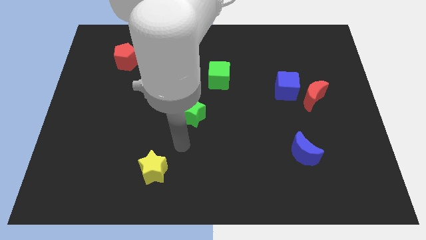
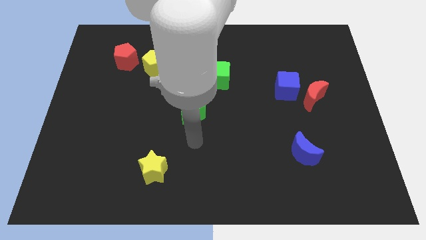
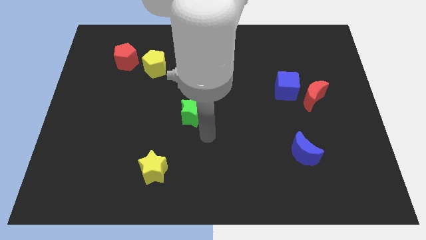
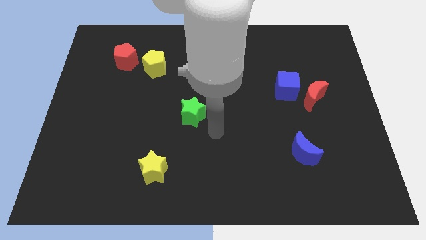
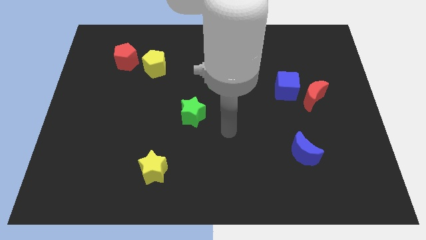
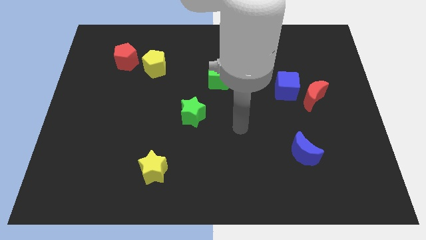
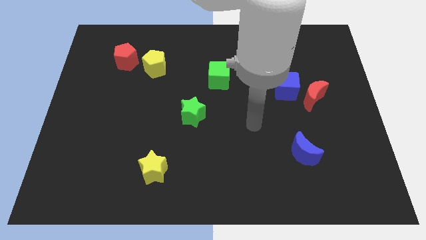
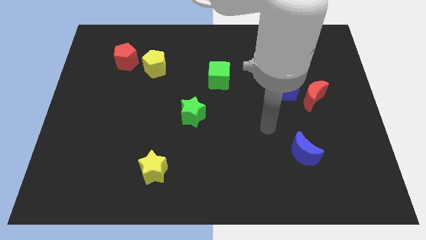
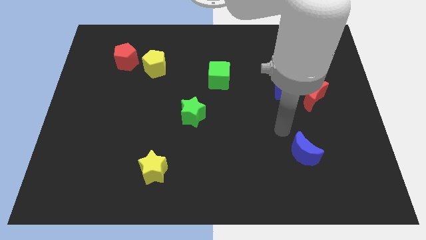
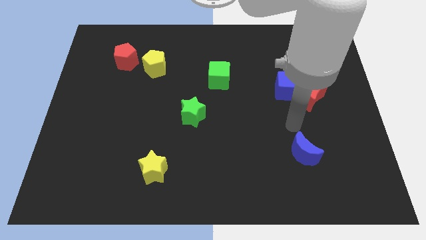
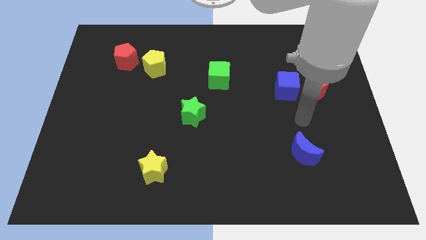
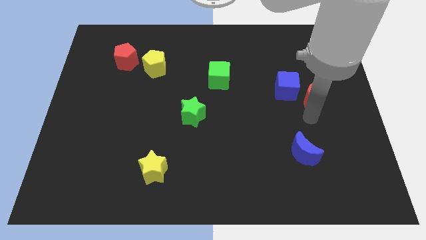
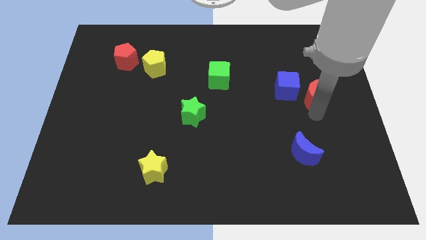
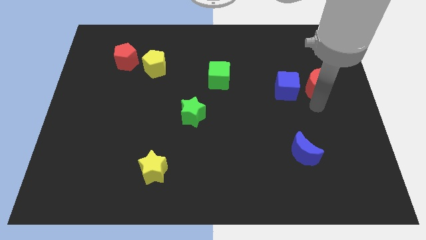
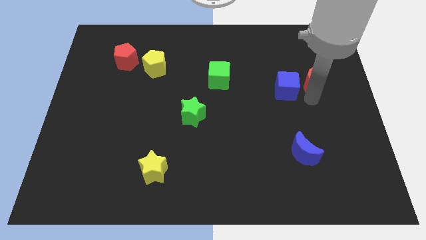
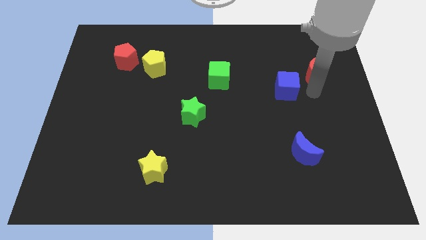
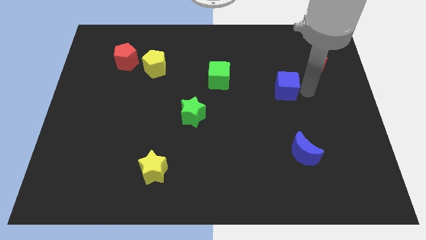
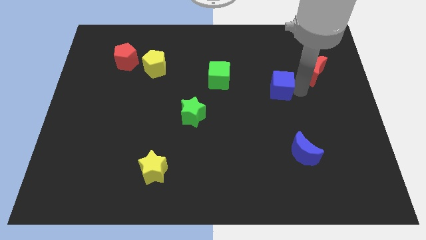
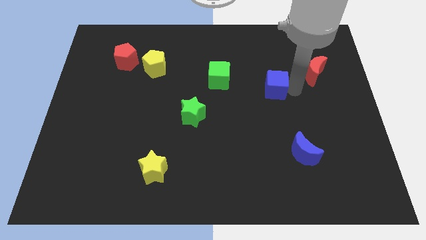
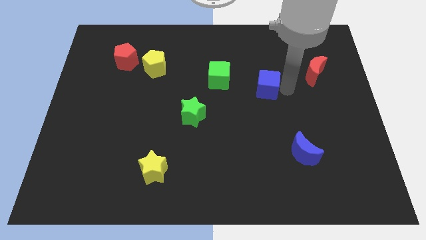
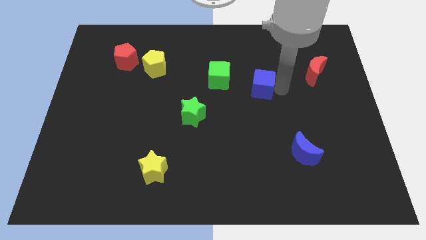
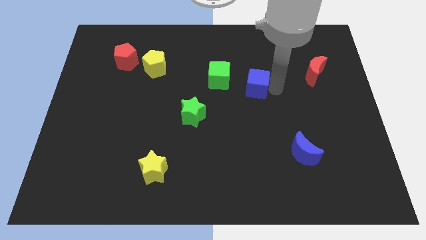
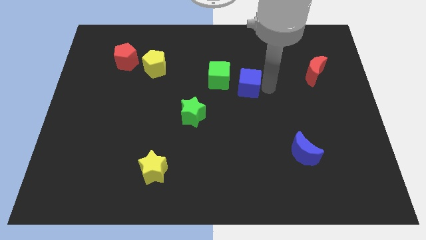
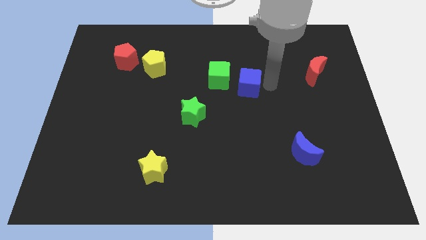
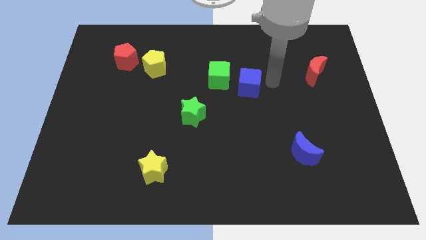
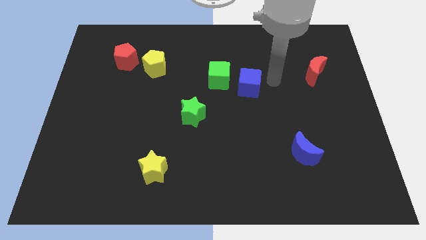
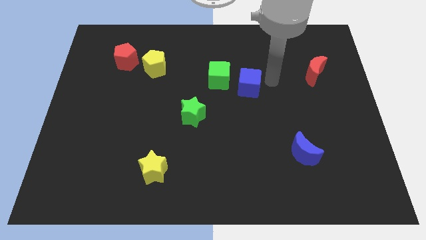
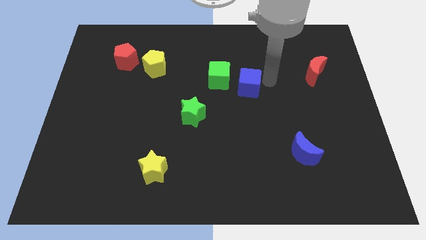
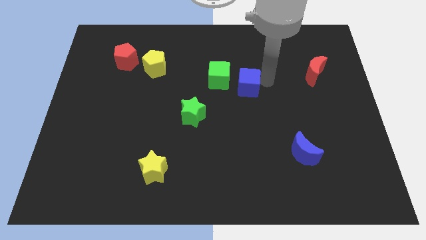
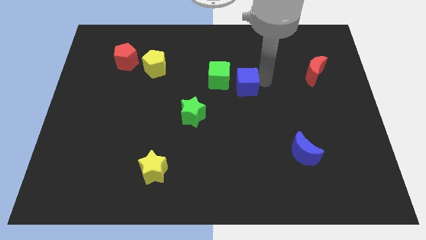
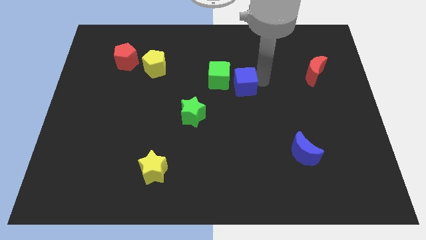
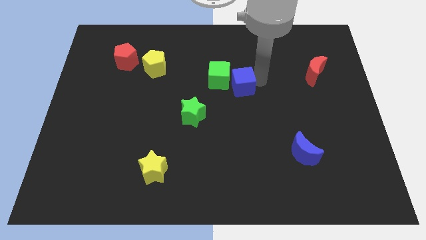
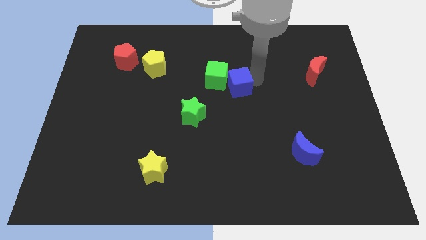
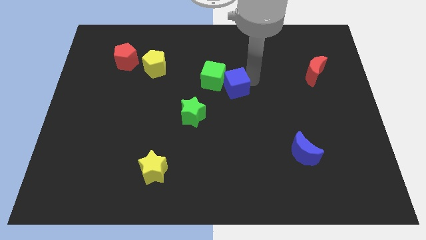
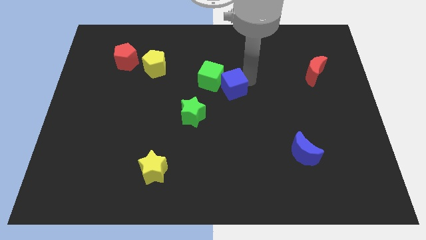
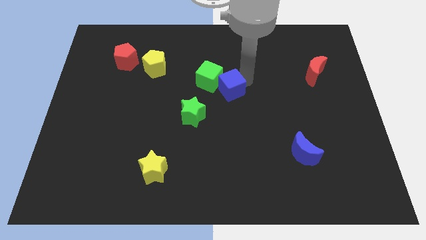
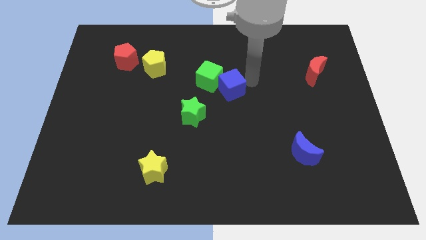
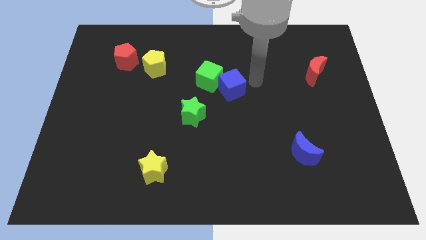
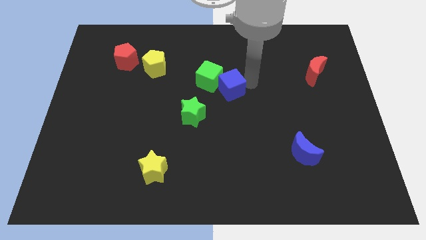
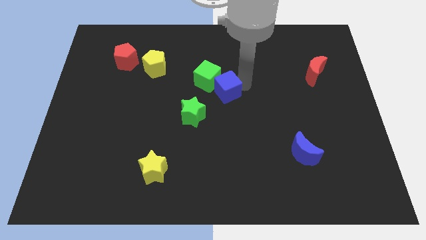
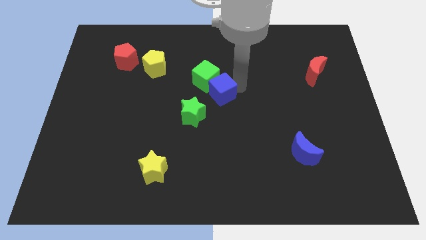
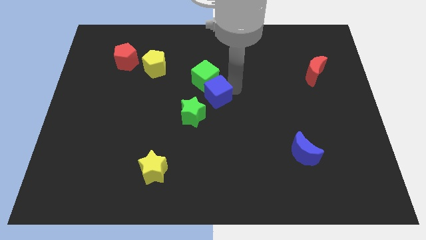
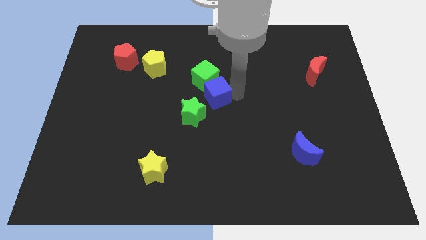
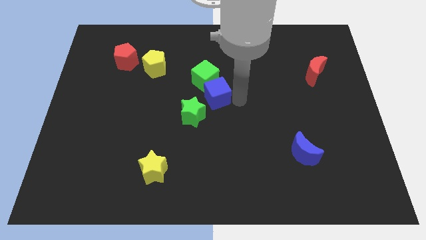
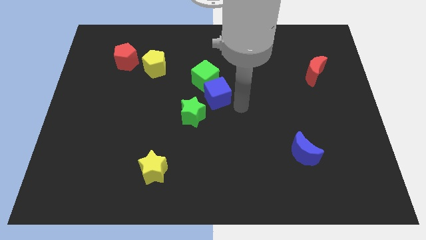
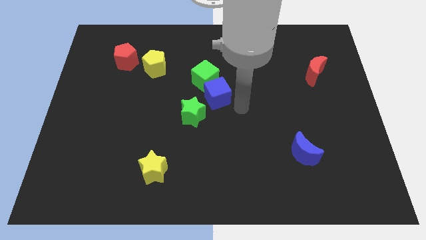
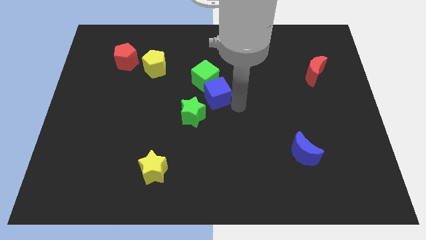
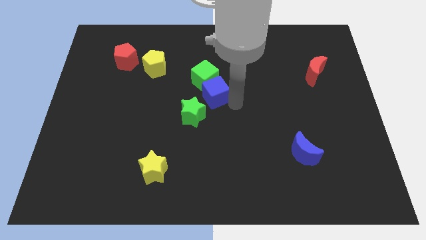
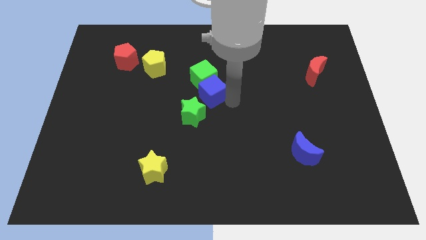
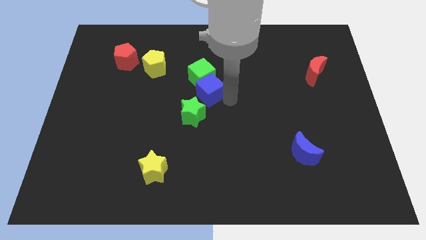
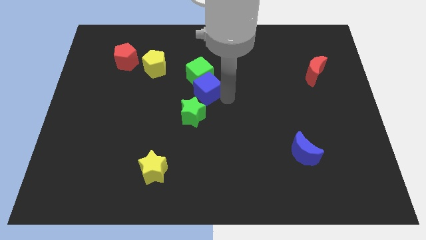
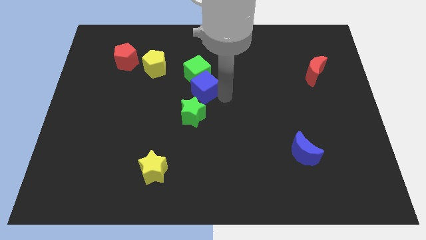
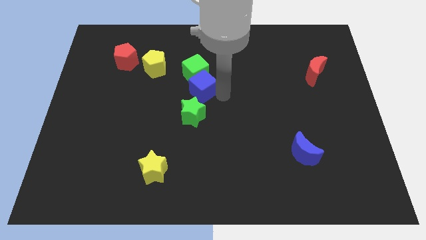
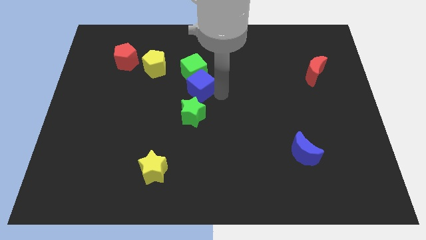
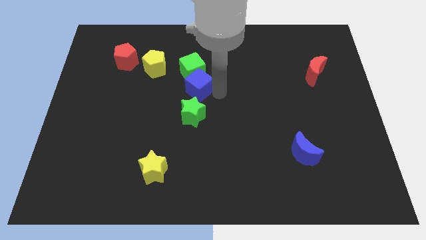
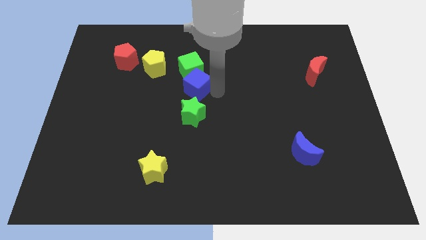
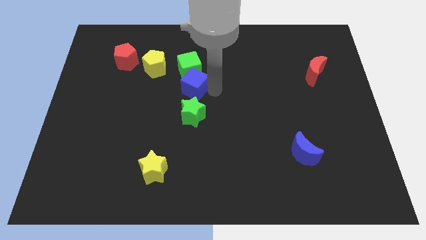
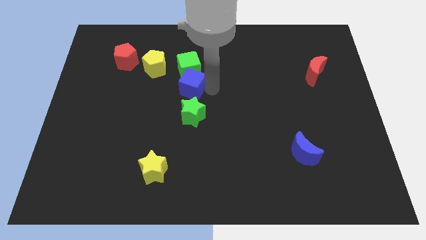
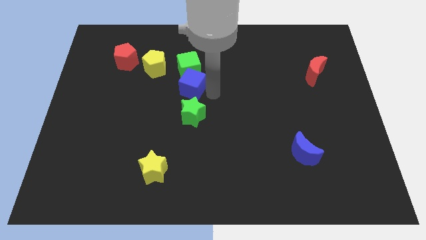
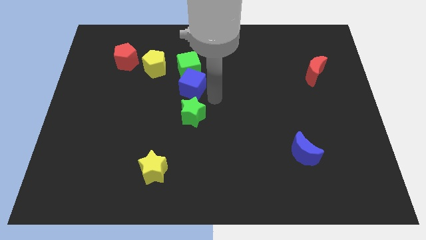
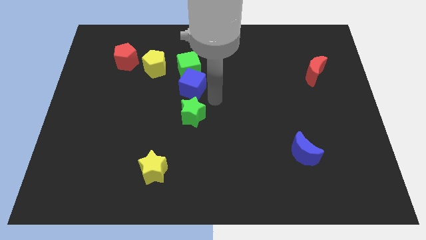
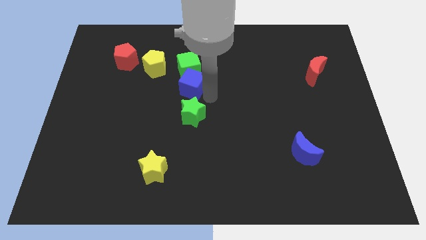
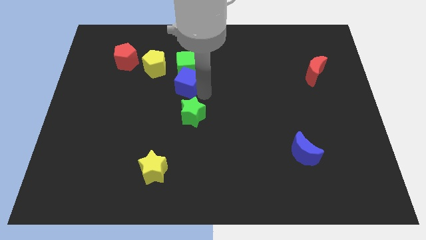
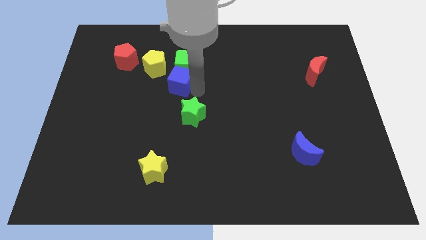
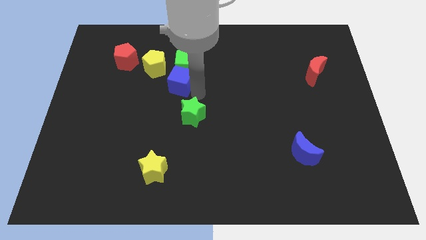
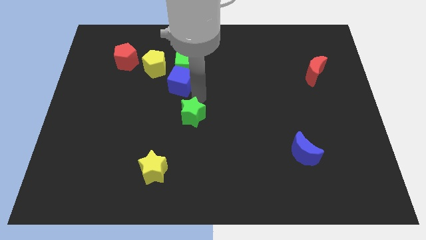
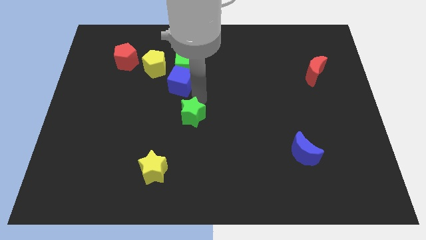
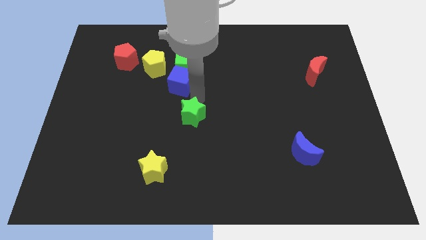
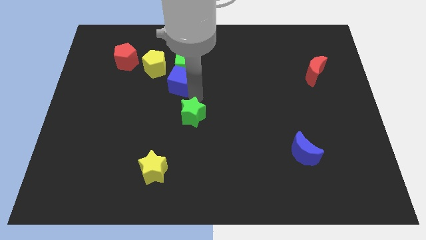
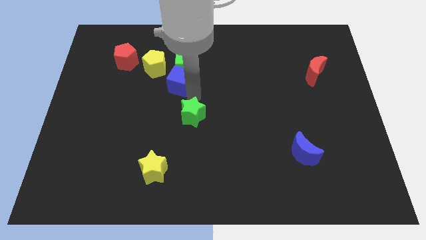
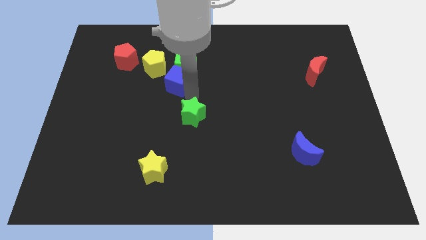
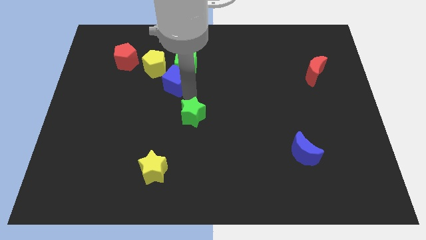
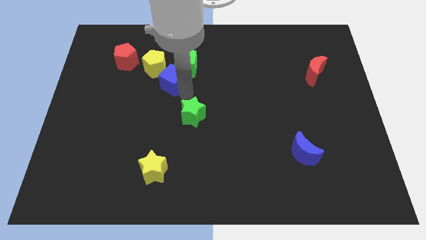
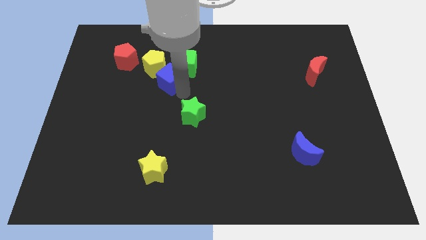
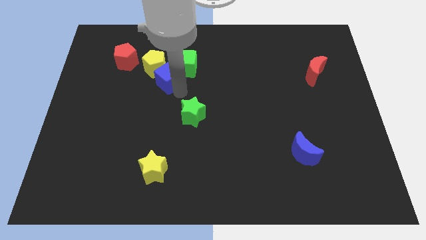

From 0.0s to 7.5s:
push the blue cube close to the yellow pentagon
